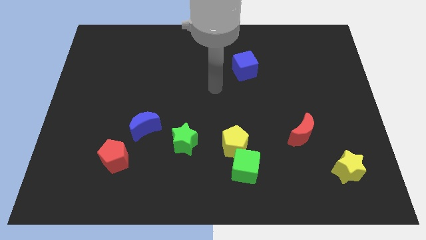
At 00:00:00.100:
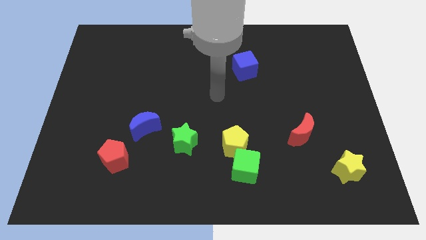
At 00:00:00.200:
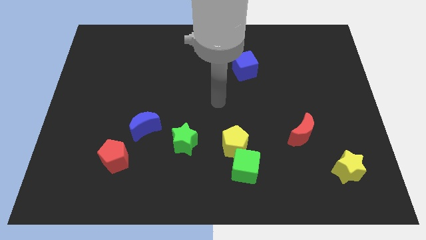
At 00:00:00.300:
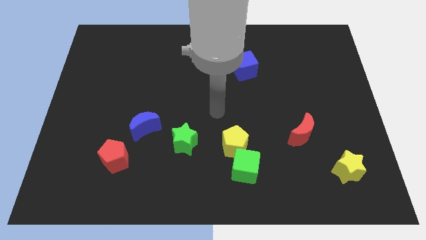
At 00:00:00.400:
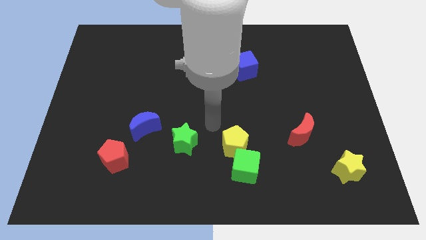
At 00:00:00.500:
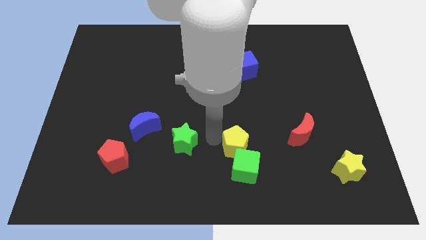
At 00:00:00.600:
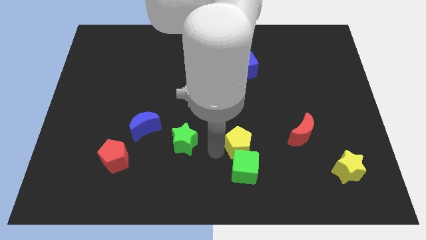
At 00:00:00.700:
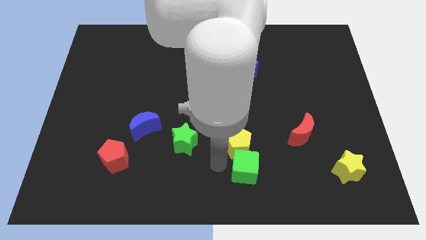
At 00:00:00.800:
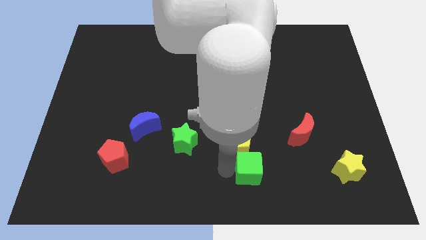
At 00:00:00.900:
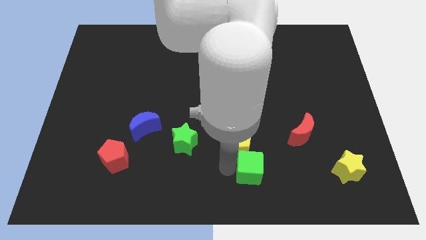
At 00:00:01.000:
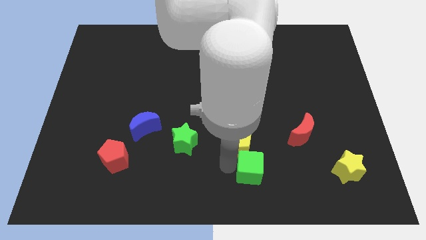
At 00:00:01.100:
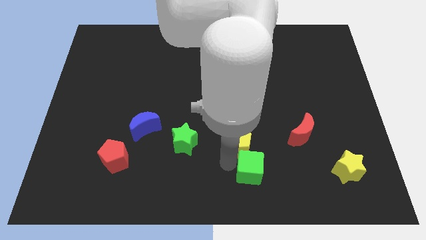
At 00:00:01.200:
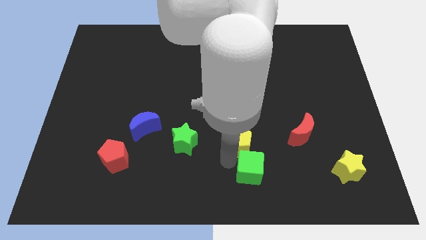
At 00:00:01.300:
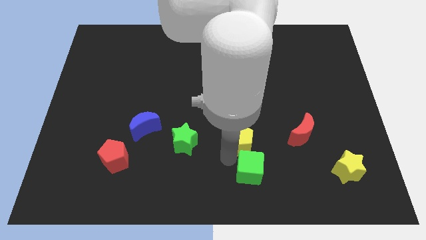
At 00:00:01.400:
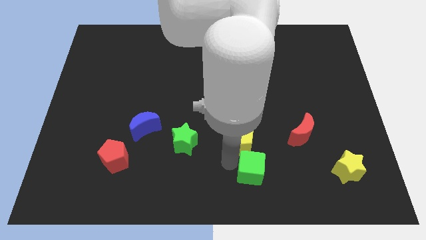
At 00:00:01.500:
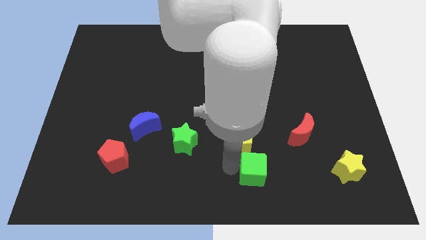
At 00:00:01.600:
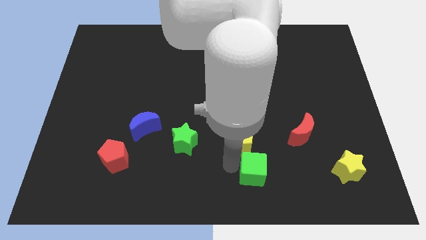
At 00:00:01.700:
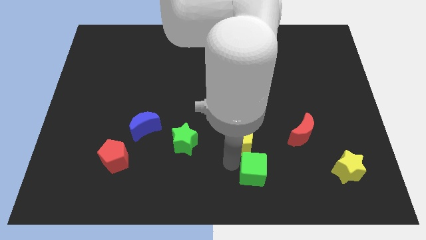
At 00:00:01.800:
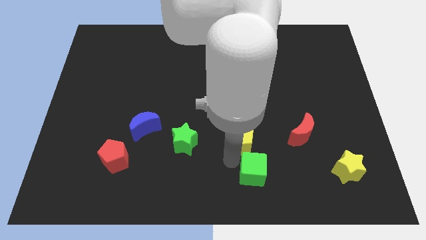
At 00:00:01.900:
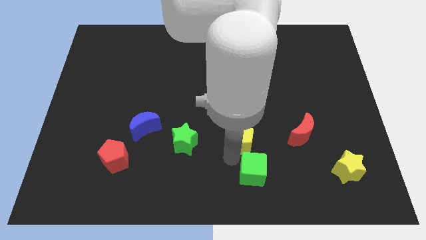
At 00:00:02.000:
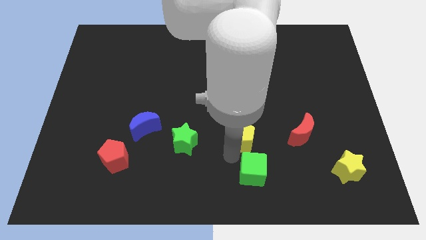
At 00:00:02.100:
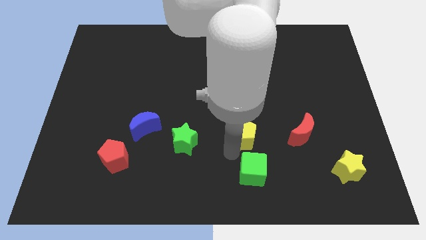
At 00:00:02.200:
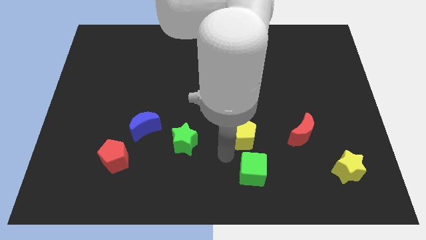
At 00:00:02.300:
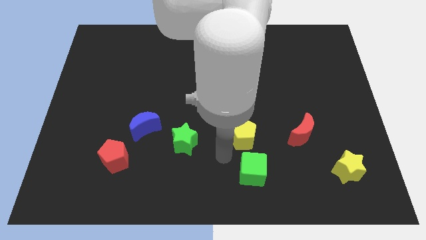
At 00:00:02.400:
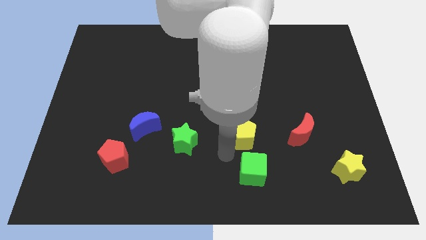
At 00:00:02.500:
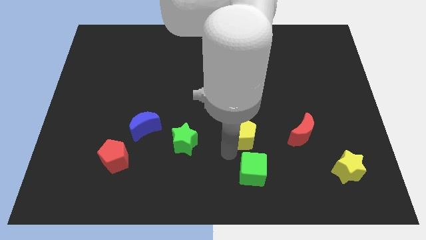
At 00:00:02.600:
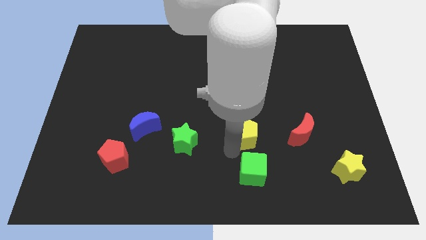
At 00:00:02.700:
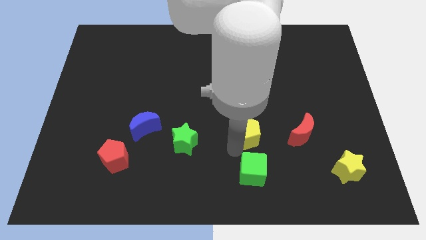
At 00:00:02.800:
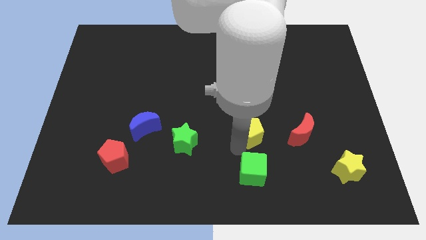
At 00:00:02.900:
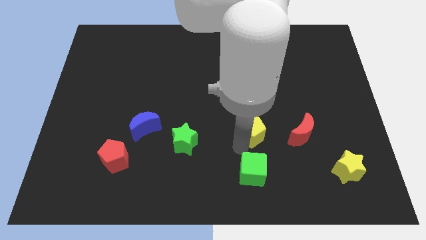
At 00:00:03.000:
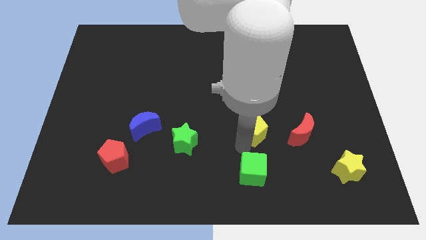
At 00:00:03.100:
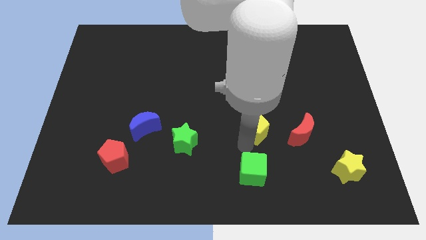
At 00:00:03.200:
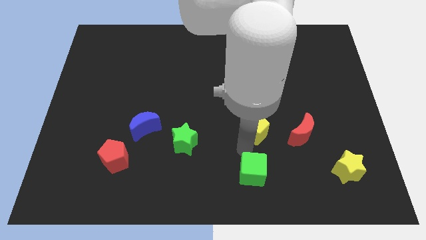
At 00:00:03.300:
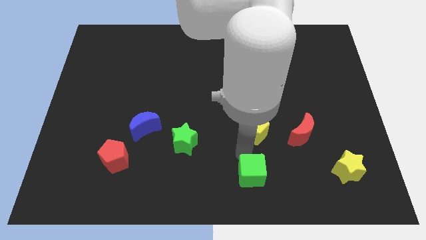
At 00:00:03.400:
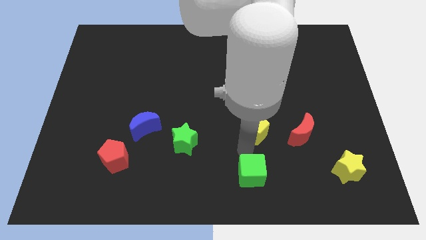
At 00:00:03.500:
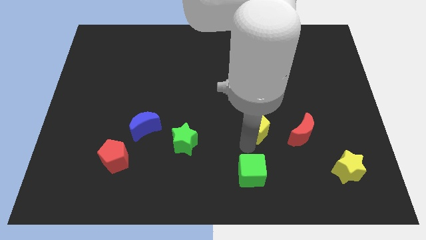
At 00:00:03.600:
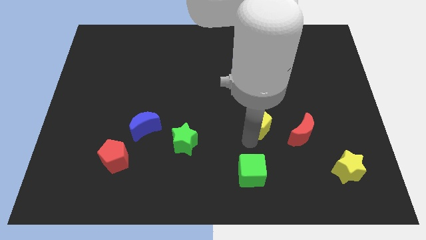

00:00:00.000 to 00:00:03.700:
slide the yellow pentagon upwards and right somewhat

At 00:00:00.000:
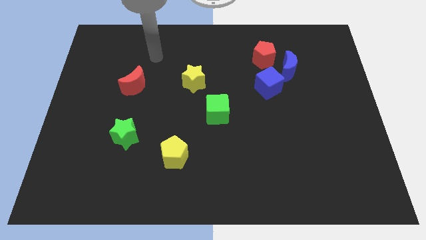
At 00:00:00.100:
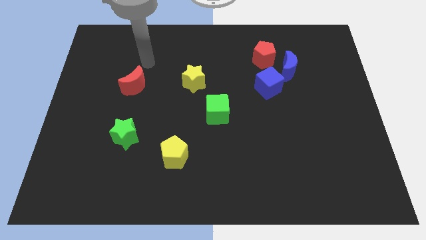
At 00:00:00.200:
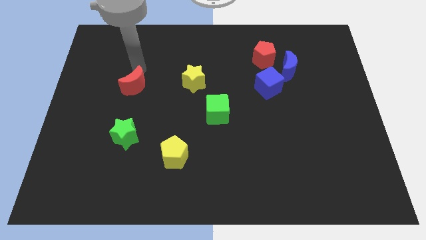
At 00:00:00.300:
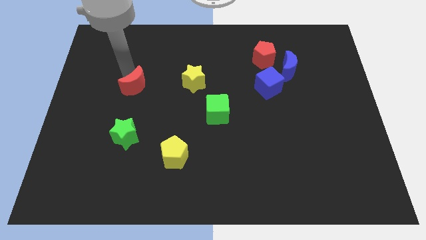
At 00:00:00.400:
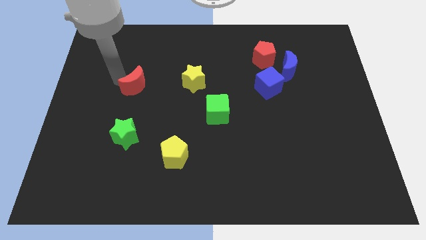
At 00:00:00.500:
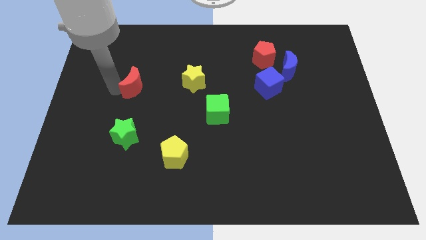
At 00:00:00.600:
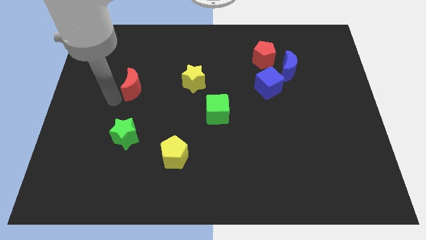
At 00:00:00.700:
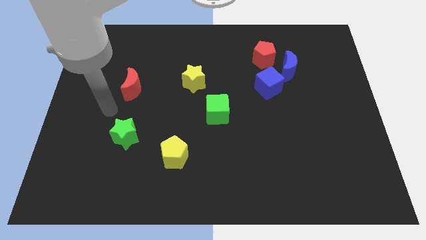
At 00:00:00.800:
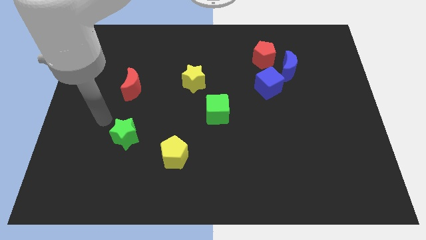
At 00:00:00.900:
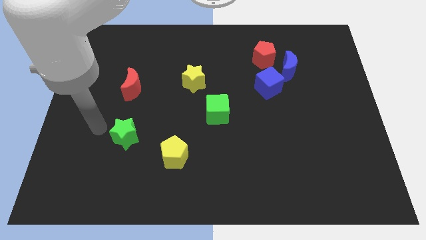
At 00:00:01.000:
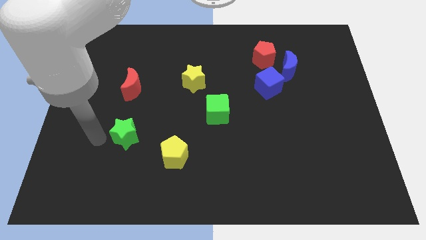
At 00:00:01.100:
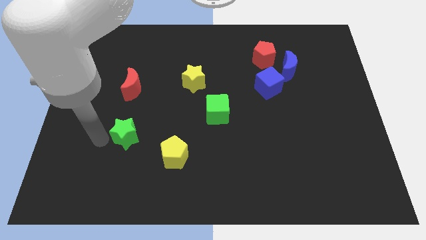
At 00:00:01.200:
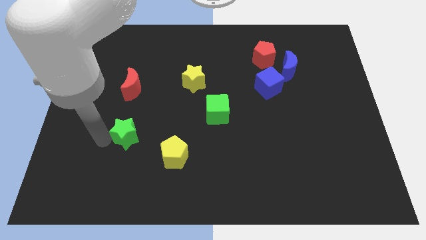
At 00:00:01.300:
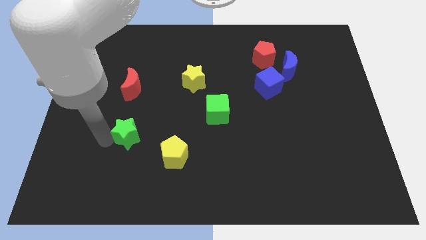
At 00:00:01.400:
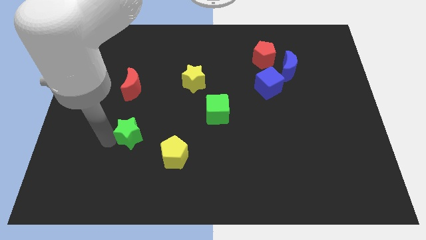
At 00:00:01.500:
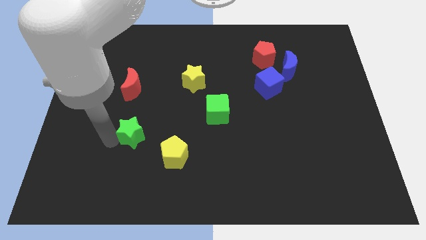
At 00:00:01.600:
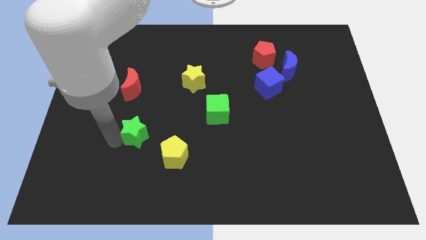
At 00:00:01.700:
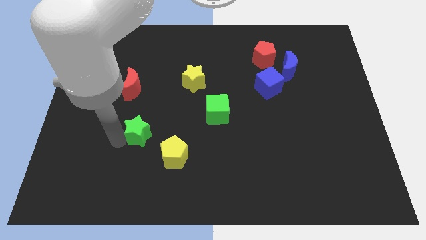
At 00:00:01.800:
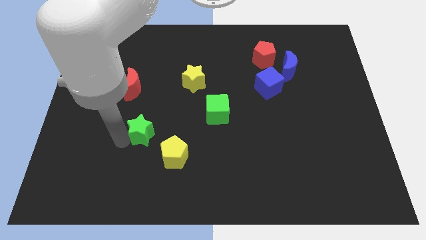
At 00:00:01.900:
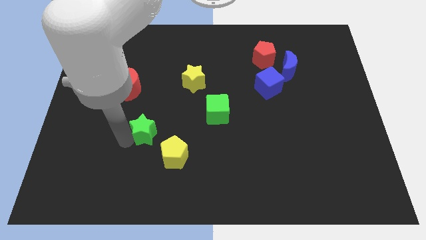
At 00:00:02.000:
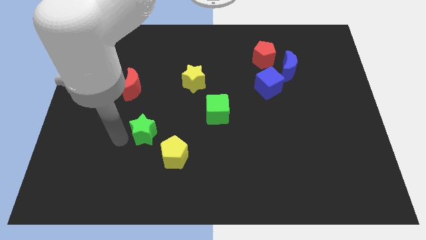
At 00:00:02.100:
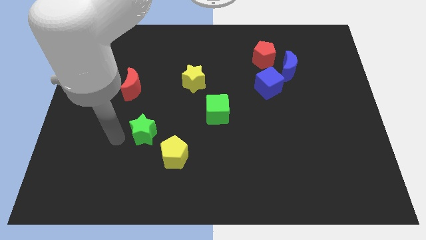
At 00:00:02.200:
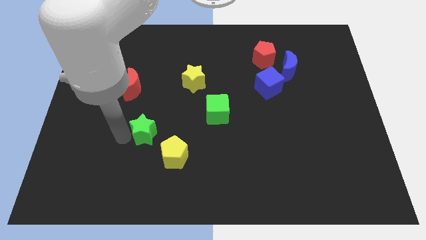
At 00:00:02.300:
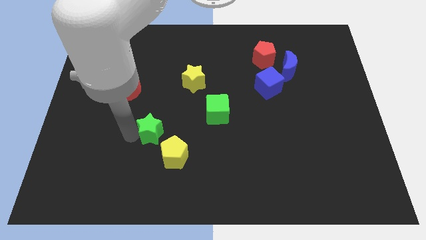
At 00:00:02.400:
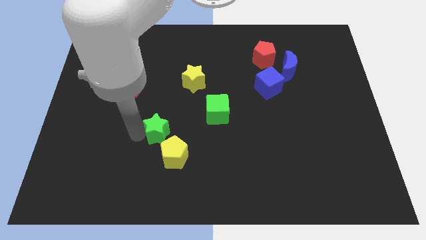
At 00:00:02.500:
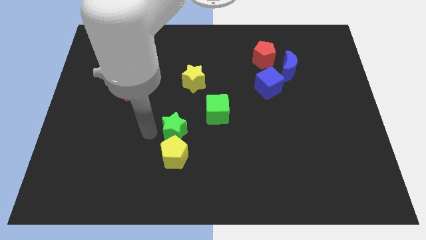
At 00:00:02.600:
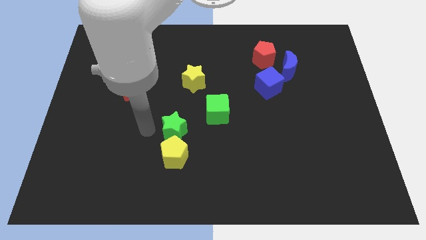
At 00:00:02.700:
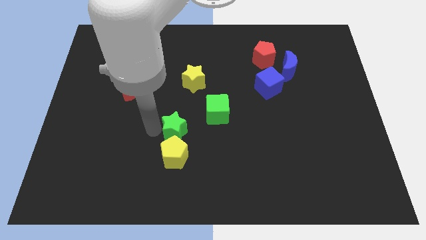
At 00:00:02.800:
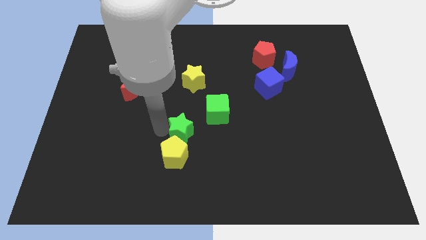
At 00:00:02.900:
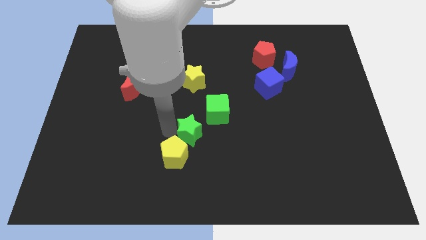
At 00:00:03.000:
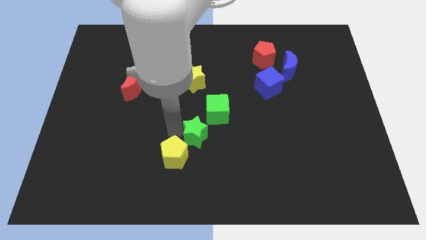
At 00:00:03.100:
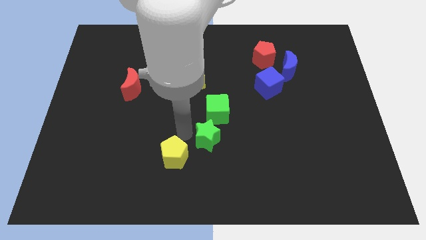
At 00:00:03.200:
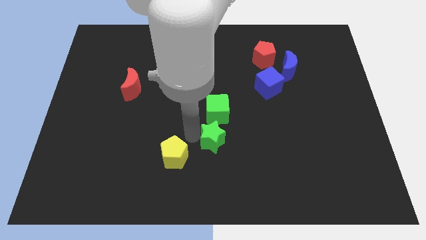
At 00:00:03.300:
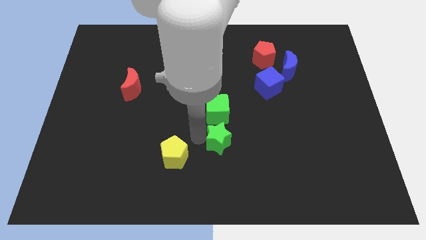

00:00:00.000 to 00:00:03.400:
slide the green star right

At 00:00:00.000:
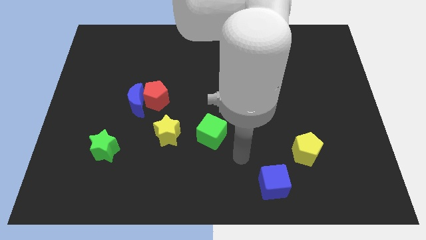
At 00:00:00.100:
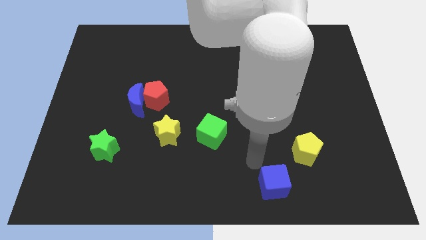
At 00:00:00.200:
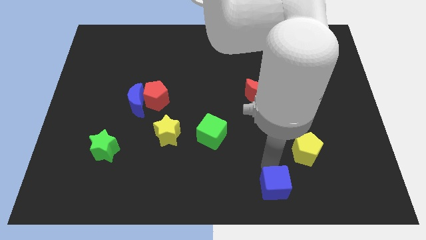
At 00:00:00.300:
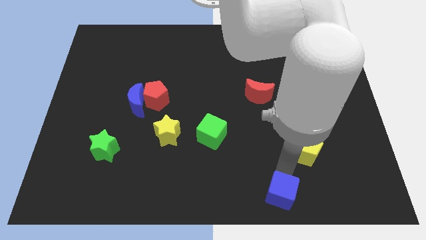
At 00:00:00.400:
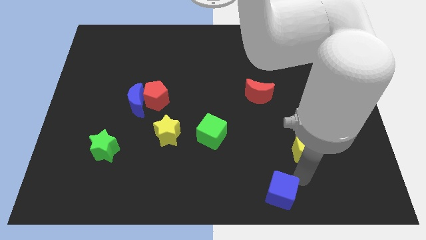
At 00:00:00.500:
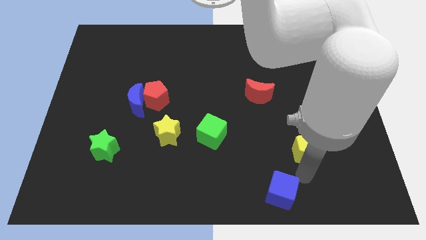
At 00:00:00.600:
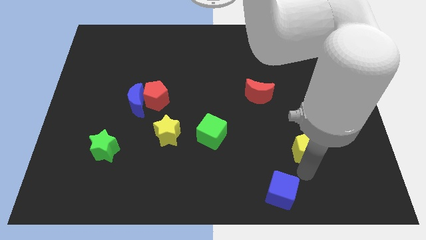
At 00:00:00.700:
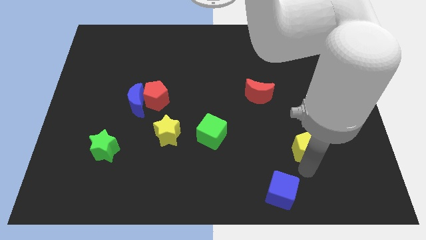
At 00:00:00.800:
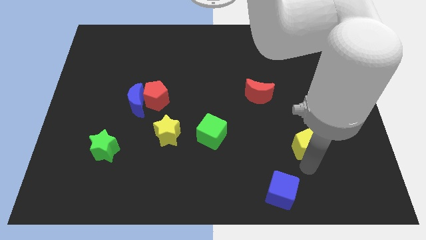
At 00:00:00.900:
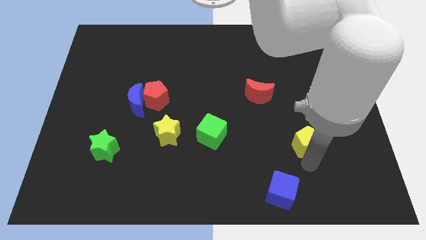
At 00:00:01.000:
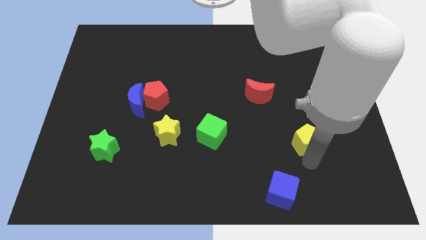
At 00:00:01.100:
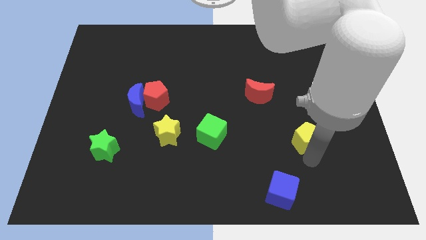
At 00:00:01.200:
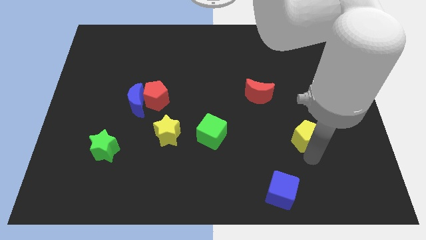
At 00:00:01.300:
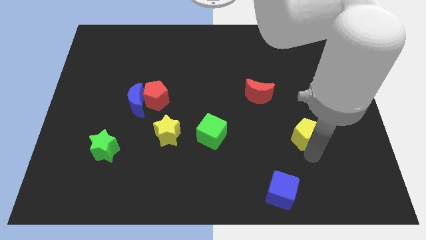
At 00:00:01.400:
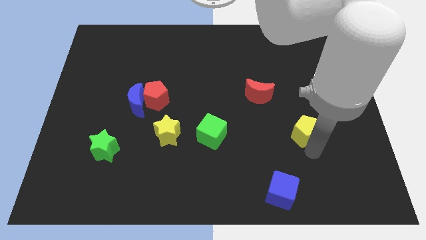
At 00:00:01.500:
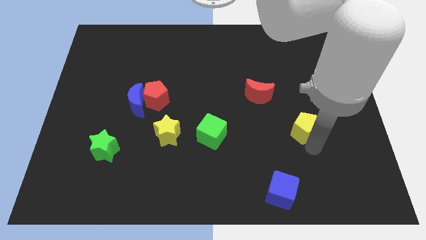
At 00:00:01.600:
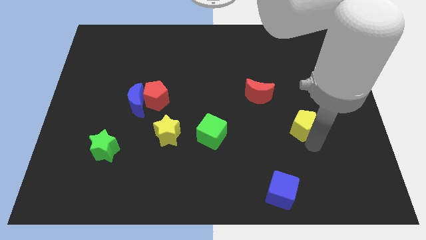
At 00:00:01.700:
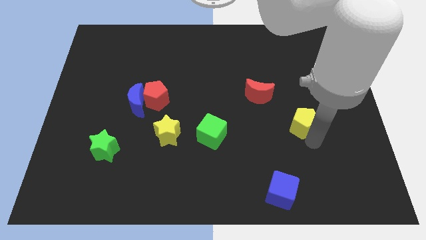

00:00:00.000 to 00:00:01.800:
slightly push the yellow pentagon up
